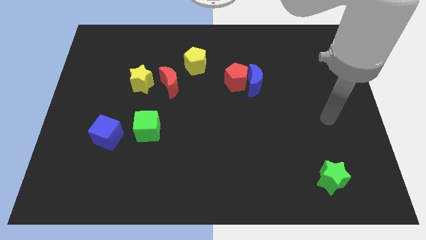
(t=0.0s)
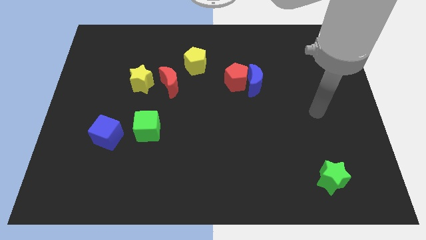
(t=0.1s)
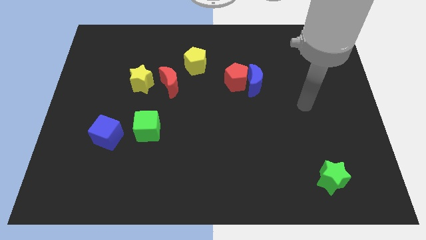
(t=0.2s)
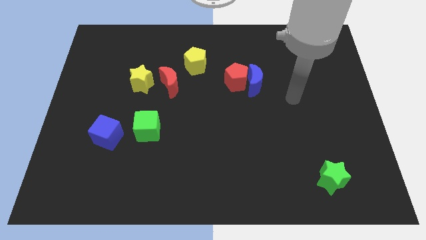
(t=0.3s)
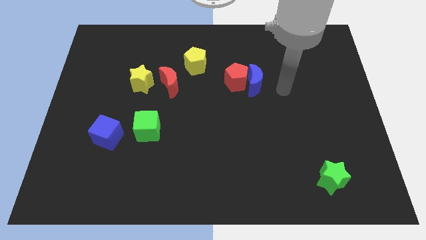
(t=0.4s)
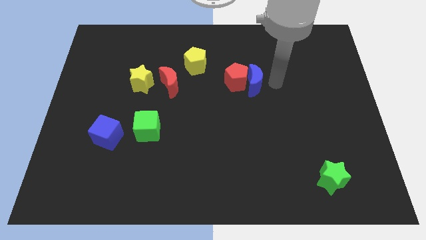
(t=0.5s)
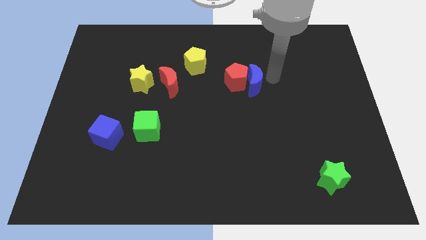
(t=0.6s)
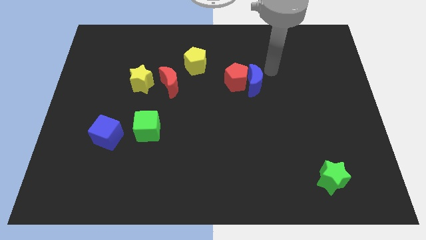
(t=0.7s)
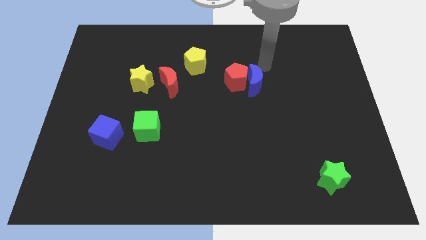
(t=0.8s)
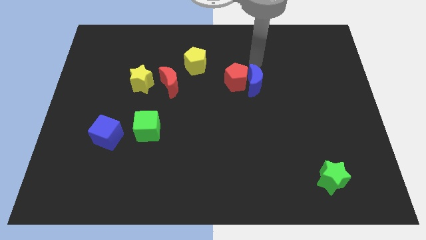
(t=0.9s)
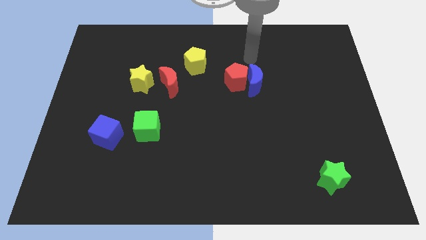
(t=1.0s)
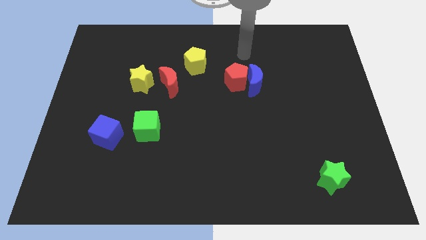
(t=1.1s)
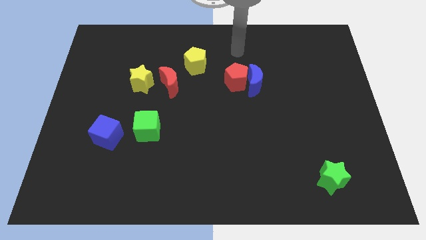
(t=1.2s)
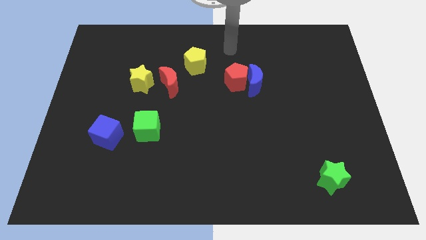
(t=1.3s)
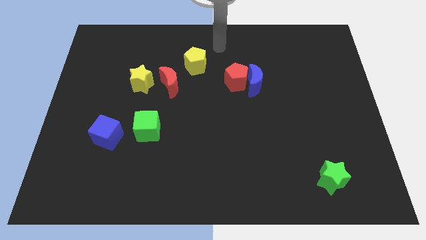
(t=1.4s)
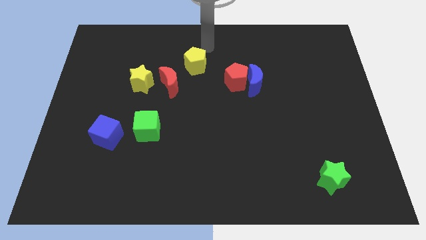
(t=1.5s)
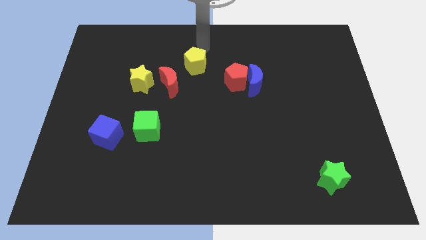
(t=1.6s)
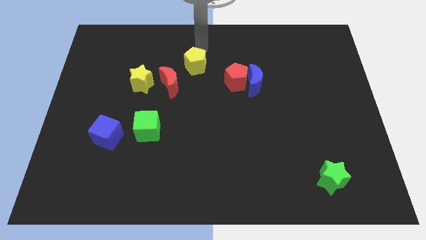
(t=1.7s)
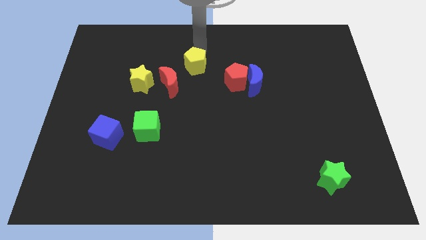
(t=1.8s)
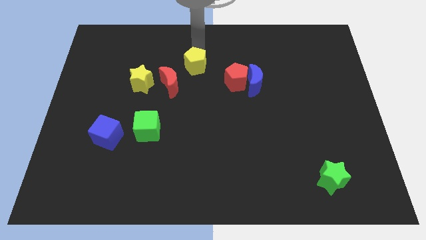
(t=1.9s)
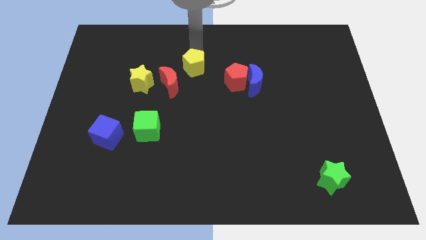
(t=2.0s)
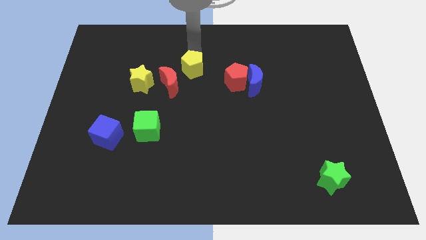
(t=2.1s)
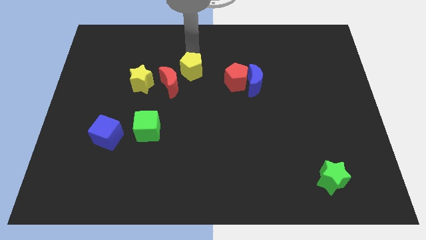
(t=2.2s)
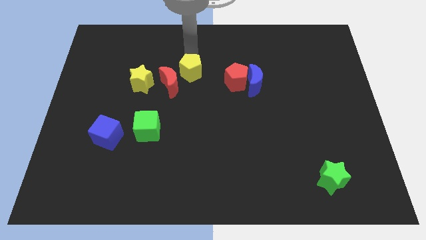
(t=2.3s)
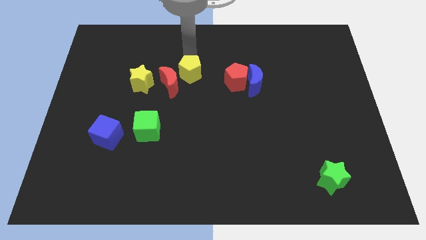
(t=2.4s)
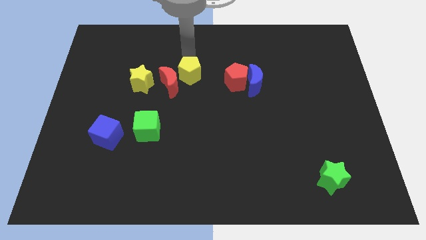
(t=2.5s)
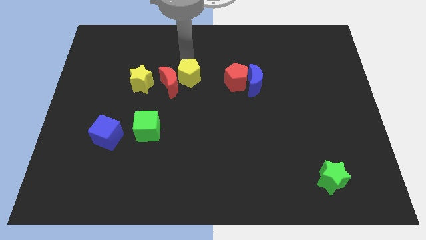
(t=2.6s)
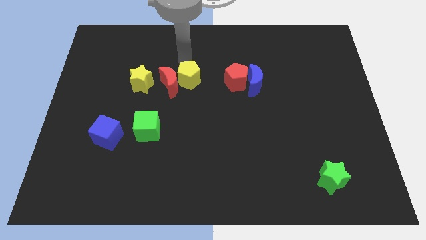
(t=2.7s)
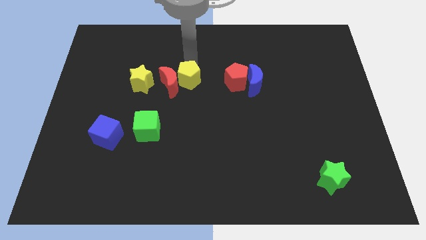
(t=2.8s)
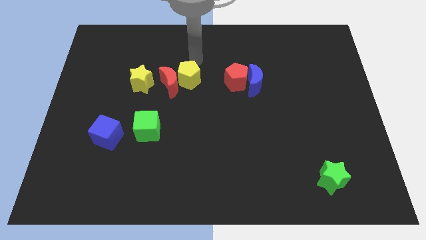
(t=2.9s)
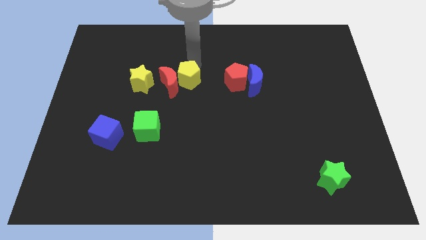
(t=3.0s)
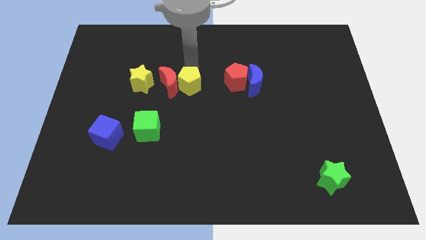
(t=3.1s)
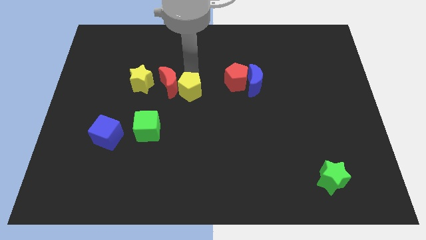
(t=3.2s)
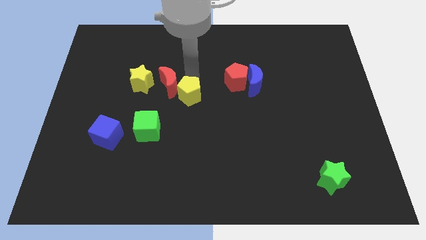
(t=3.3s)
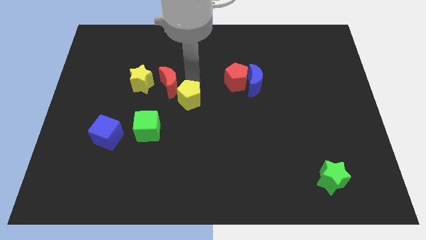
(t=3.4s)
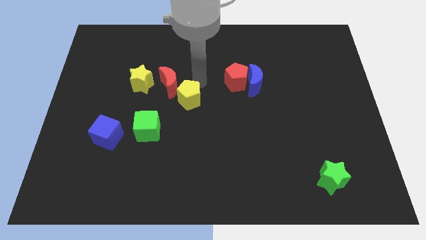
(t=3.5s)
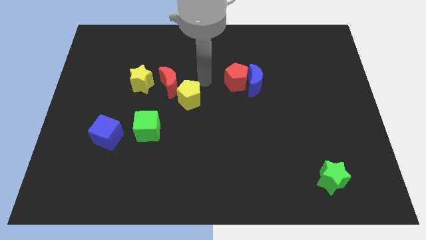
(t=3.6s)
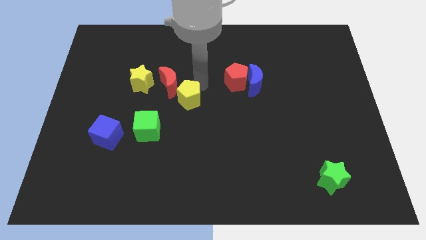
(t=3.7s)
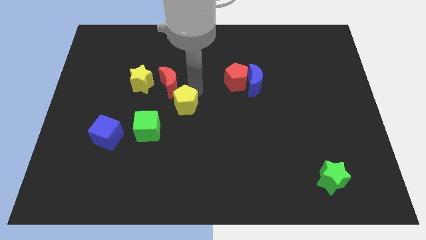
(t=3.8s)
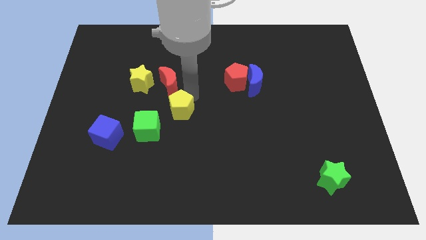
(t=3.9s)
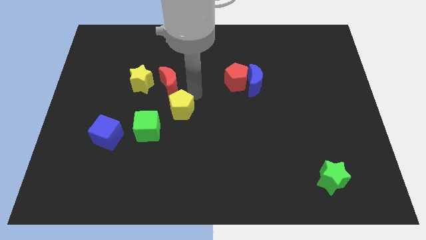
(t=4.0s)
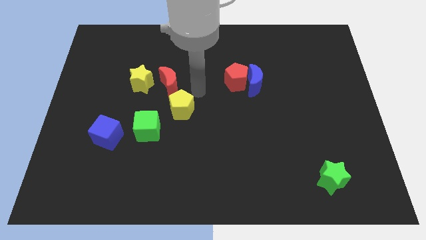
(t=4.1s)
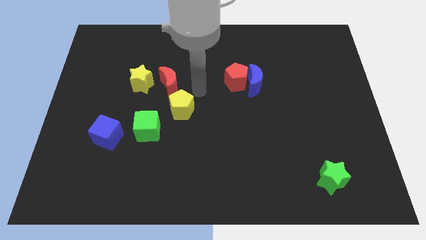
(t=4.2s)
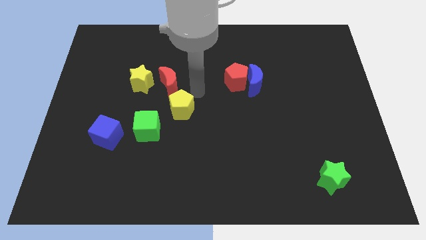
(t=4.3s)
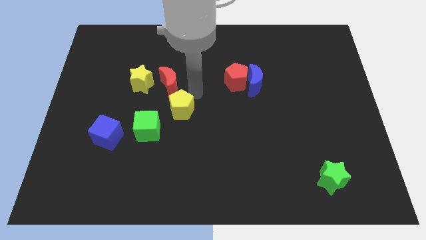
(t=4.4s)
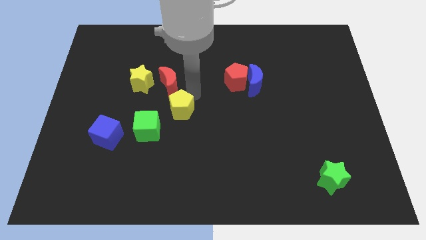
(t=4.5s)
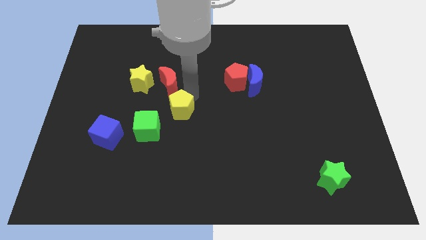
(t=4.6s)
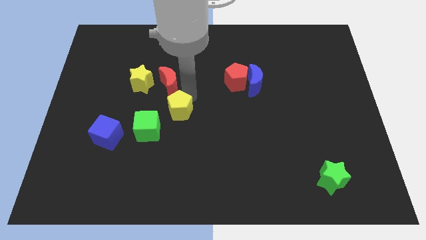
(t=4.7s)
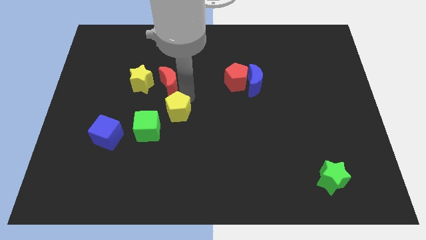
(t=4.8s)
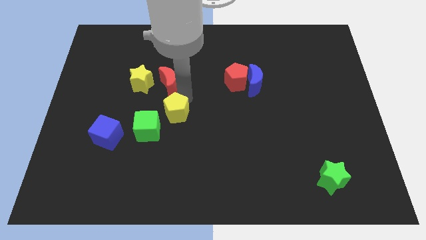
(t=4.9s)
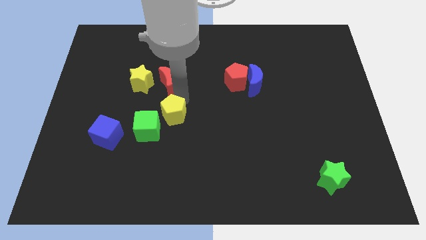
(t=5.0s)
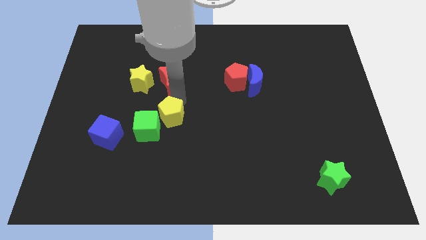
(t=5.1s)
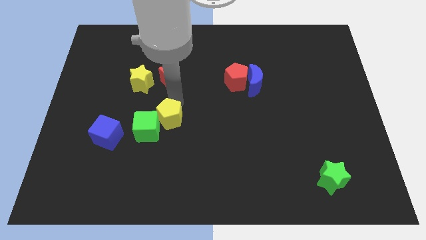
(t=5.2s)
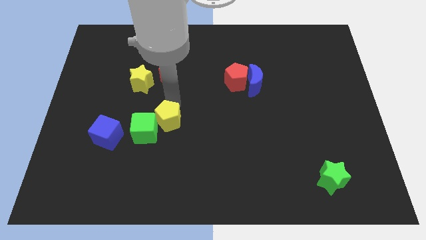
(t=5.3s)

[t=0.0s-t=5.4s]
move the yellow pentagon to the right side of the blue cube

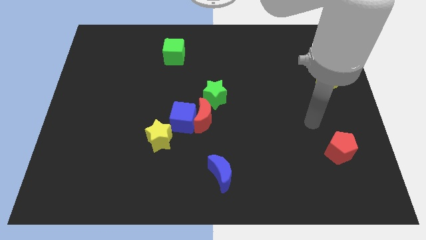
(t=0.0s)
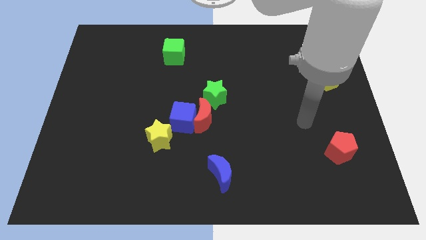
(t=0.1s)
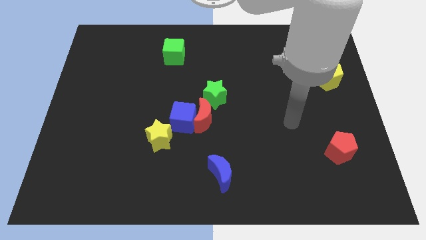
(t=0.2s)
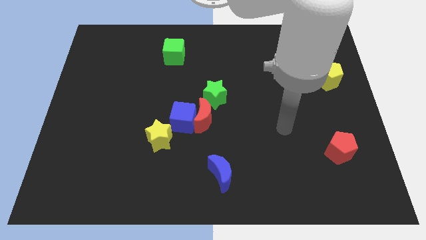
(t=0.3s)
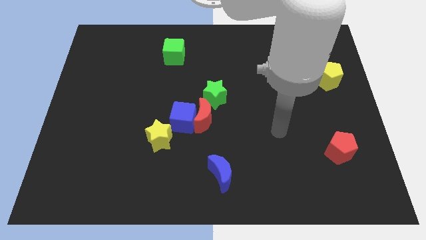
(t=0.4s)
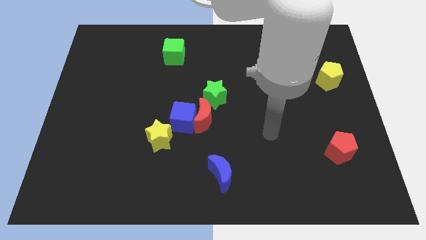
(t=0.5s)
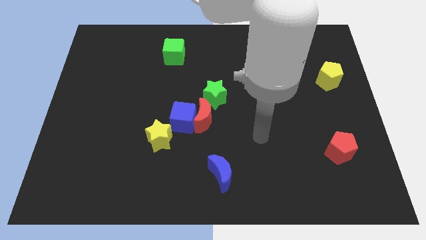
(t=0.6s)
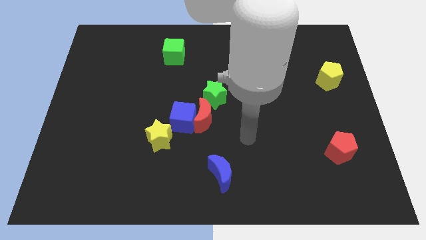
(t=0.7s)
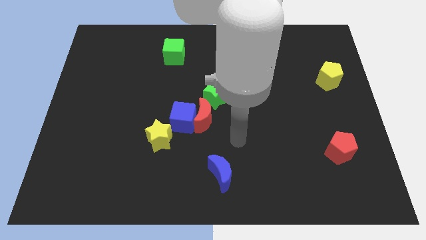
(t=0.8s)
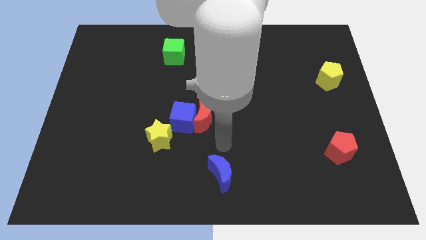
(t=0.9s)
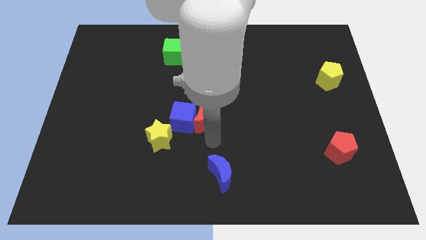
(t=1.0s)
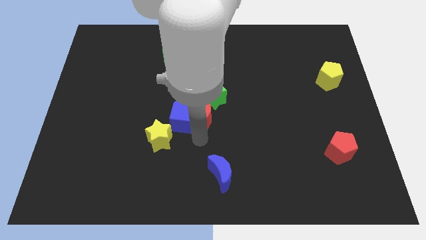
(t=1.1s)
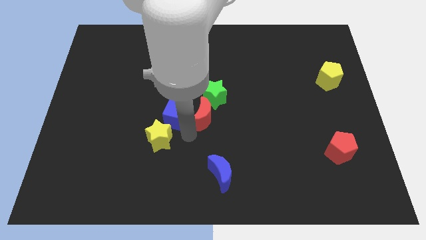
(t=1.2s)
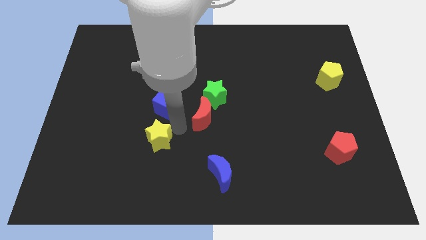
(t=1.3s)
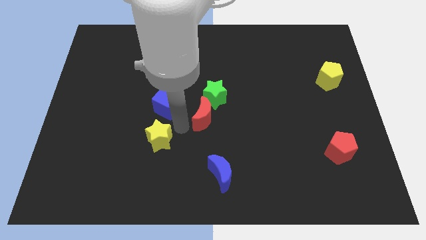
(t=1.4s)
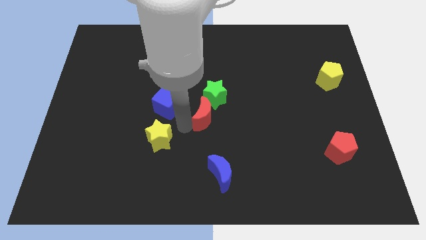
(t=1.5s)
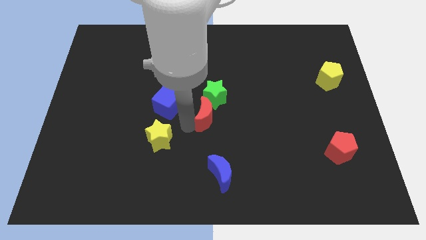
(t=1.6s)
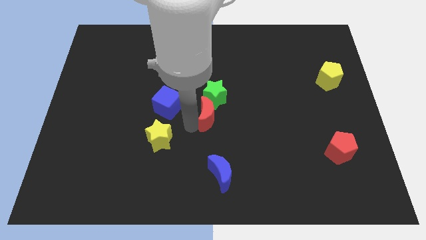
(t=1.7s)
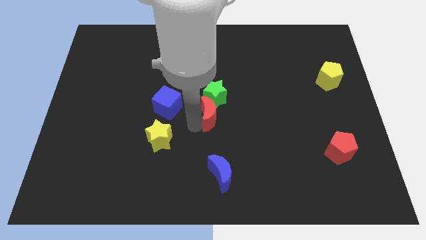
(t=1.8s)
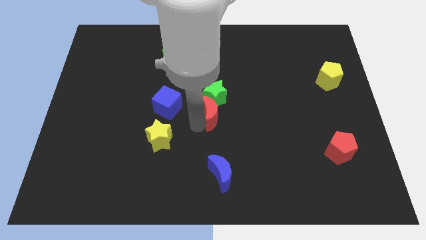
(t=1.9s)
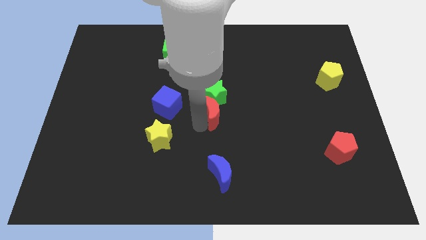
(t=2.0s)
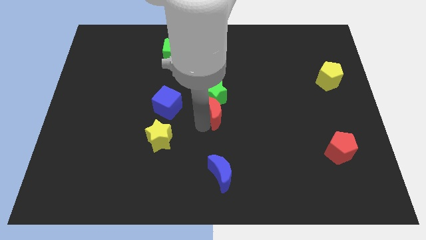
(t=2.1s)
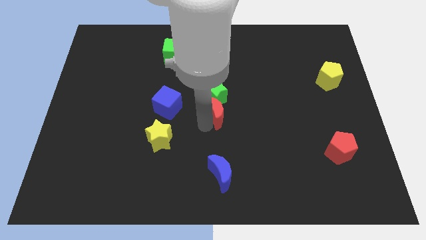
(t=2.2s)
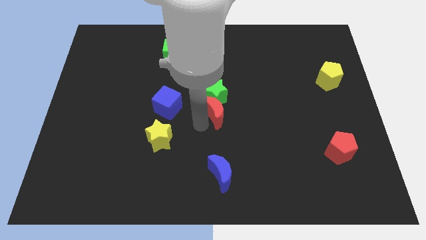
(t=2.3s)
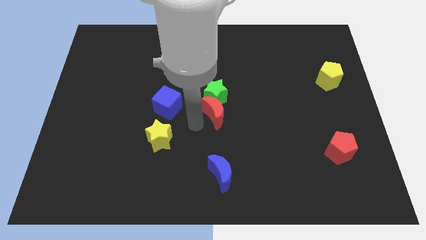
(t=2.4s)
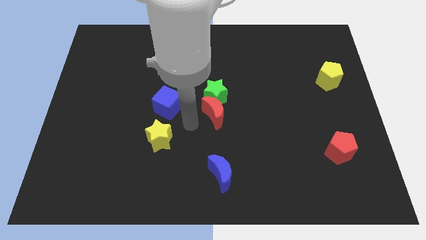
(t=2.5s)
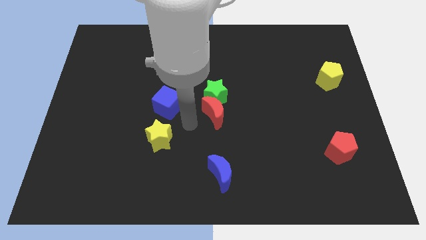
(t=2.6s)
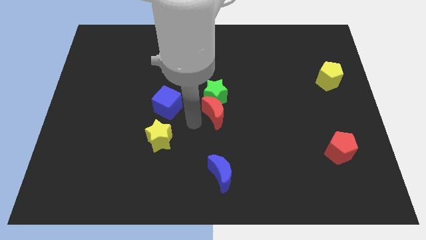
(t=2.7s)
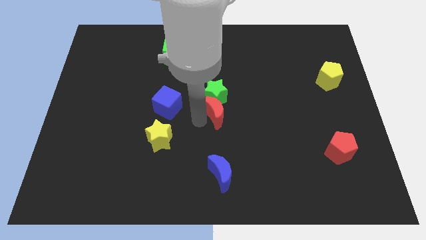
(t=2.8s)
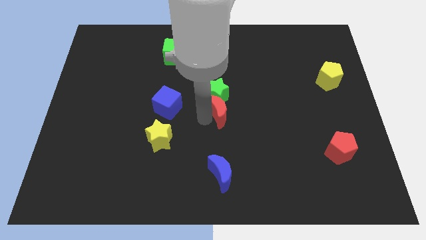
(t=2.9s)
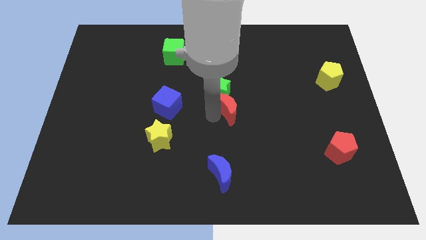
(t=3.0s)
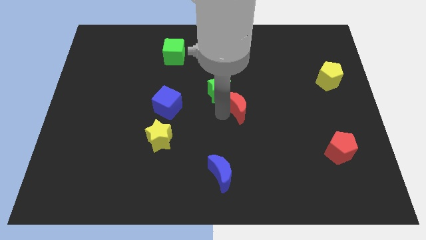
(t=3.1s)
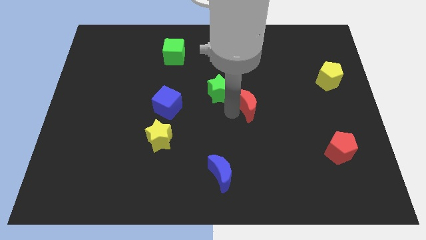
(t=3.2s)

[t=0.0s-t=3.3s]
put the red moon right of the green star
